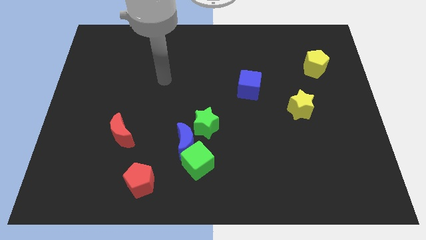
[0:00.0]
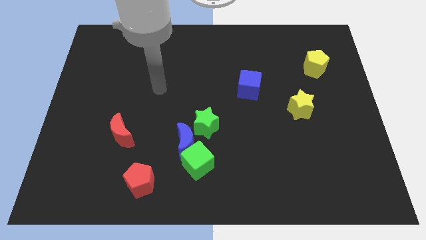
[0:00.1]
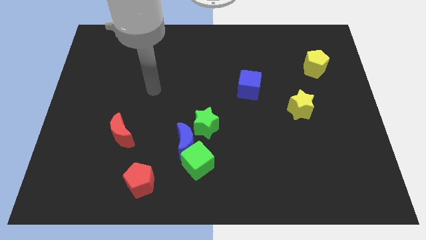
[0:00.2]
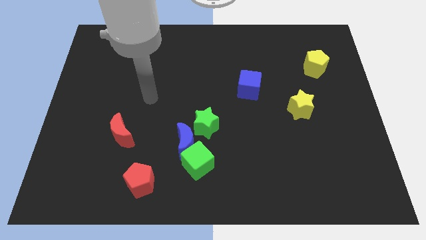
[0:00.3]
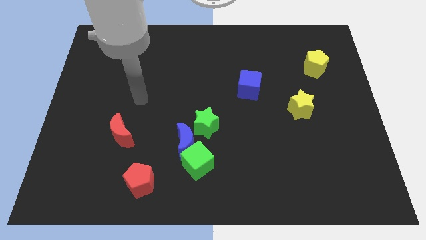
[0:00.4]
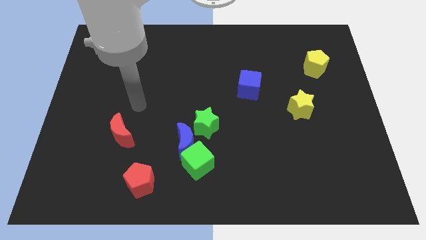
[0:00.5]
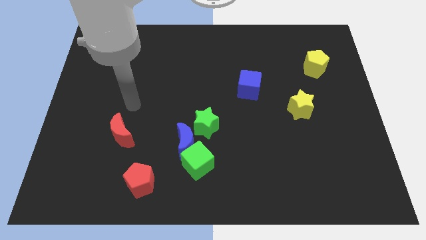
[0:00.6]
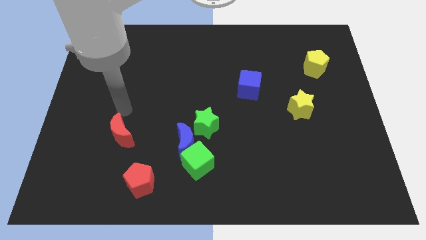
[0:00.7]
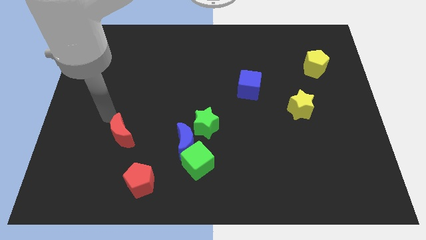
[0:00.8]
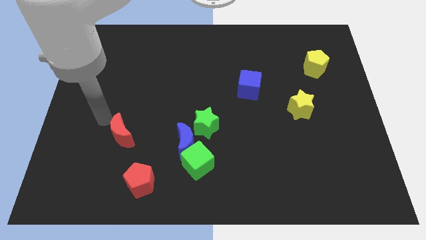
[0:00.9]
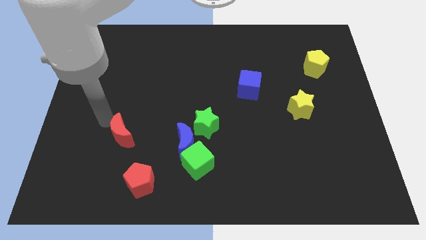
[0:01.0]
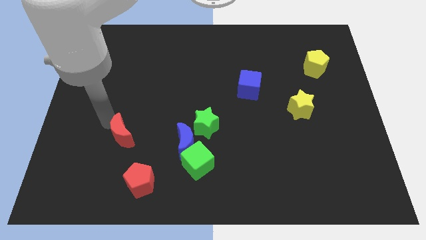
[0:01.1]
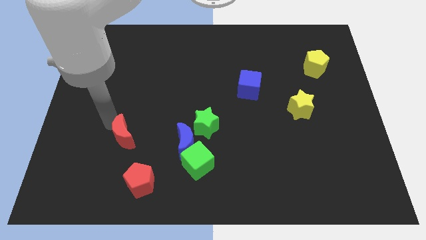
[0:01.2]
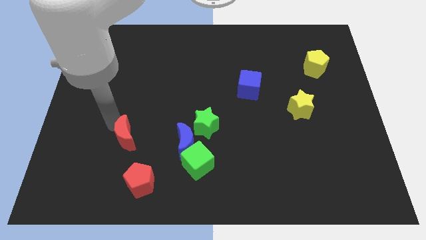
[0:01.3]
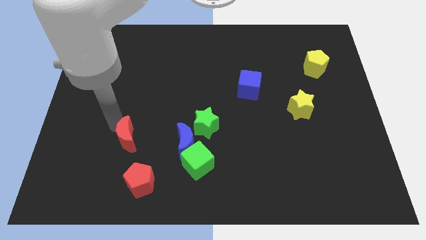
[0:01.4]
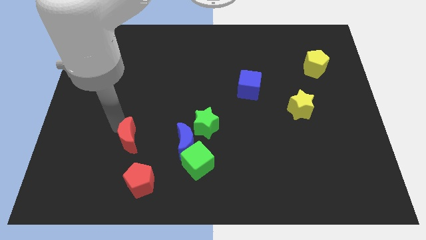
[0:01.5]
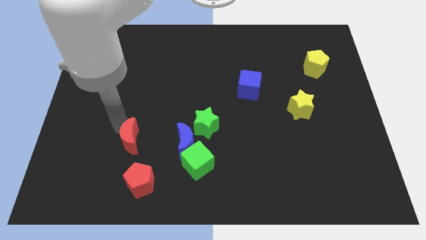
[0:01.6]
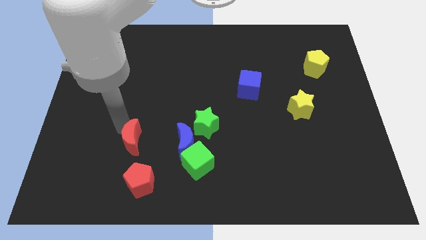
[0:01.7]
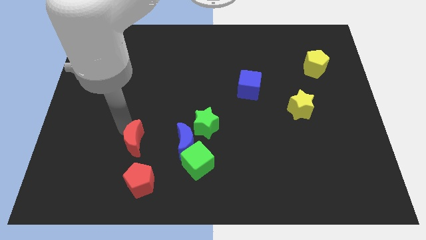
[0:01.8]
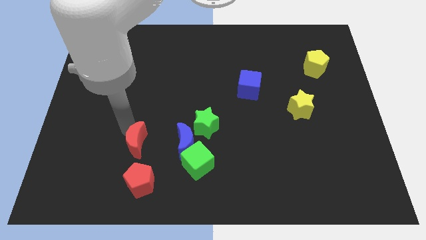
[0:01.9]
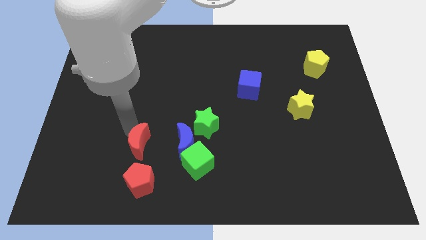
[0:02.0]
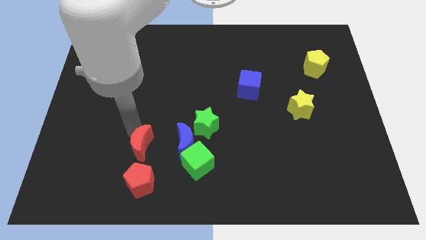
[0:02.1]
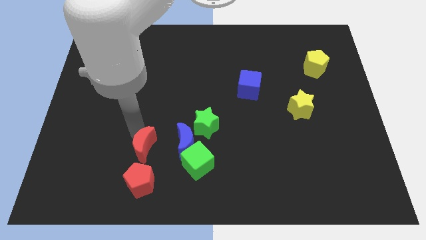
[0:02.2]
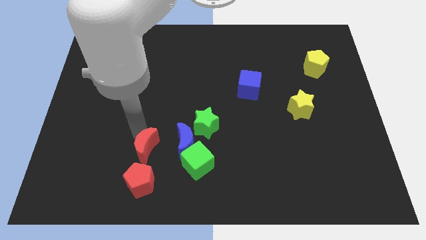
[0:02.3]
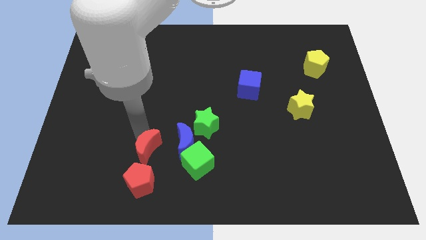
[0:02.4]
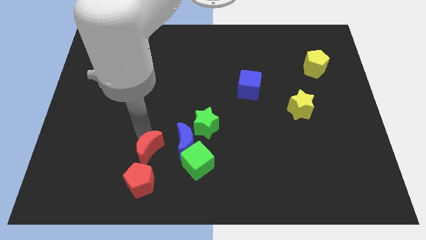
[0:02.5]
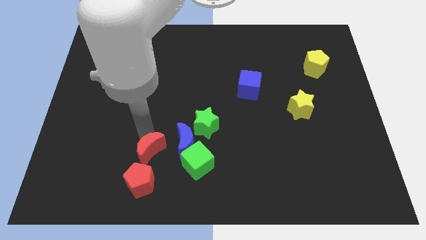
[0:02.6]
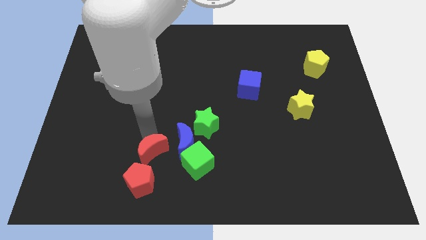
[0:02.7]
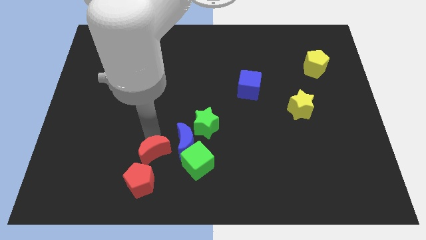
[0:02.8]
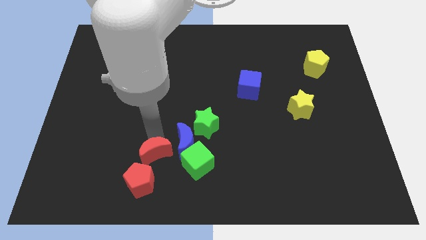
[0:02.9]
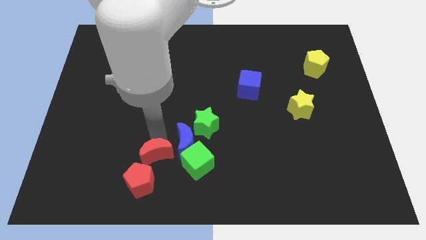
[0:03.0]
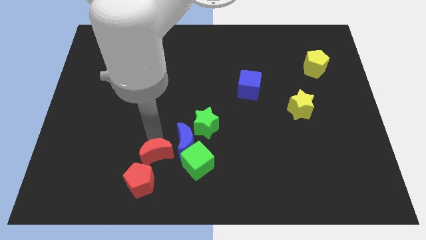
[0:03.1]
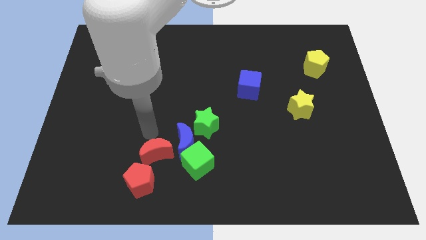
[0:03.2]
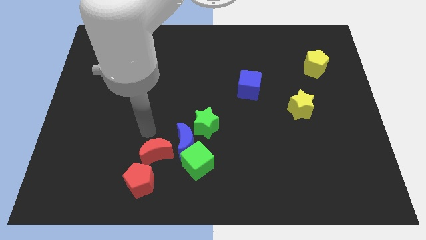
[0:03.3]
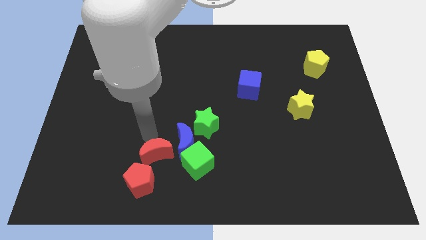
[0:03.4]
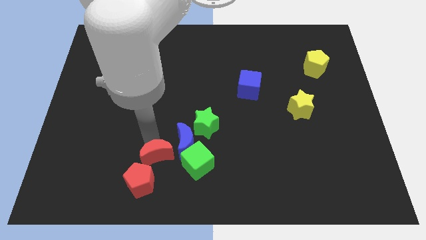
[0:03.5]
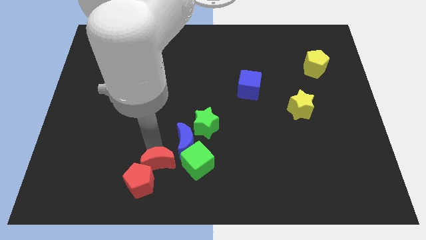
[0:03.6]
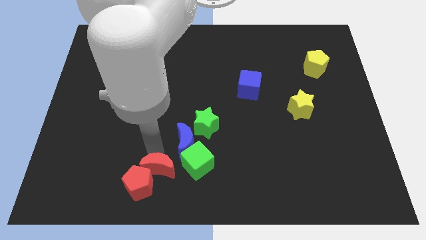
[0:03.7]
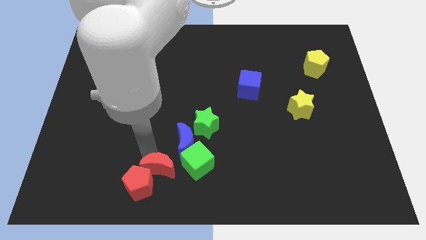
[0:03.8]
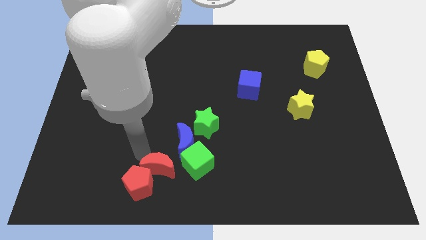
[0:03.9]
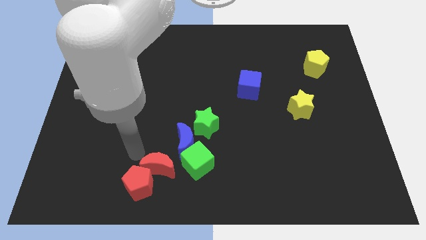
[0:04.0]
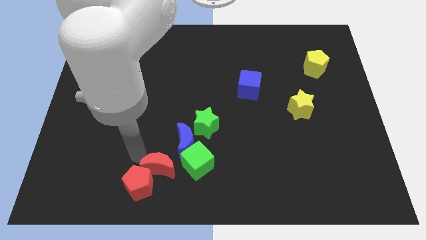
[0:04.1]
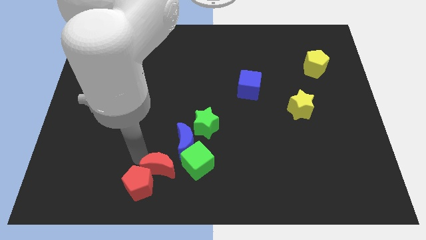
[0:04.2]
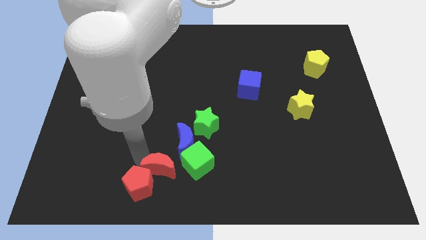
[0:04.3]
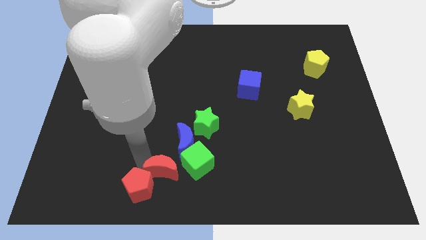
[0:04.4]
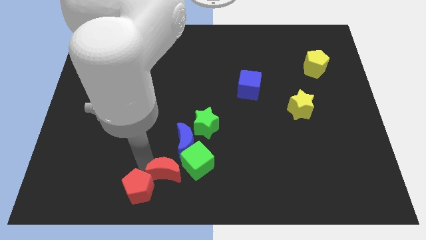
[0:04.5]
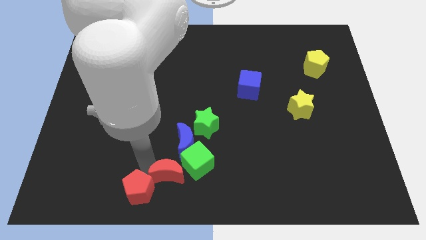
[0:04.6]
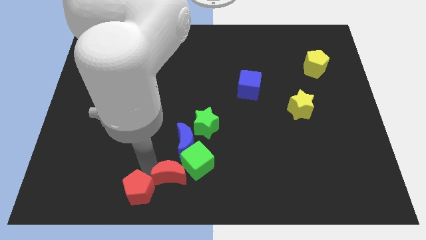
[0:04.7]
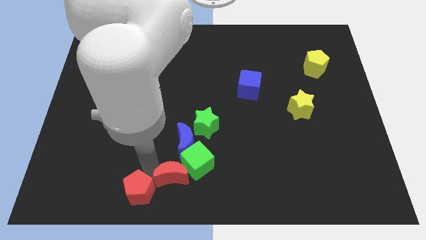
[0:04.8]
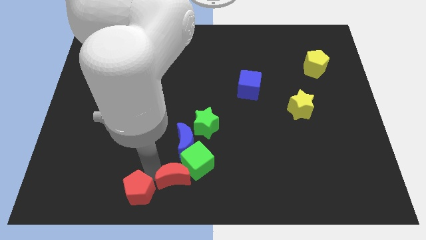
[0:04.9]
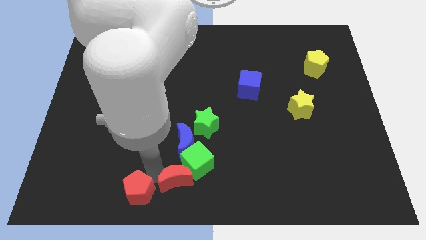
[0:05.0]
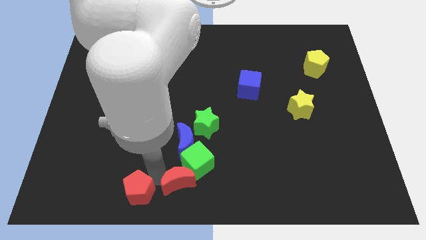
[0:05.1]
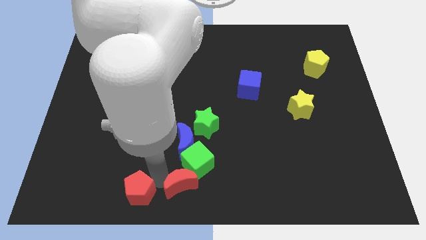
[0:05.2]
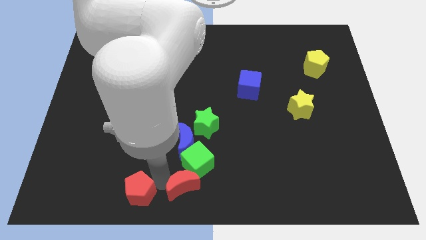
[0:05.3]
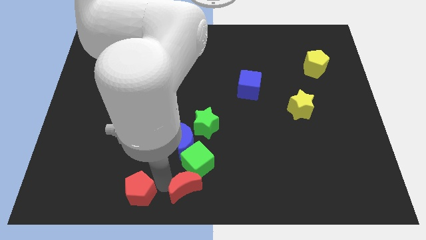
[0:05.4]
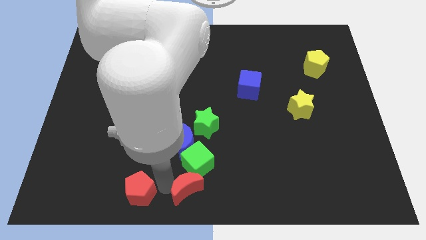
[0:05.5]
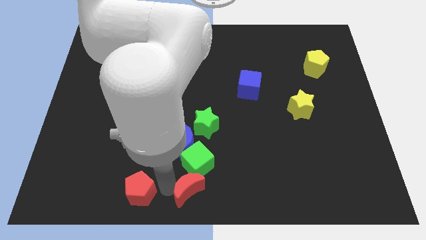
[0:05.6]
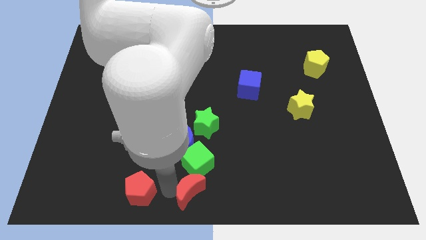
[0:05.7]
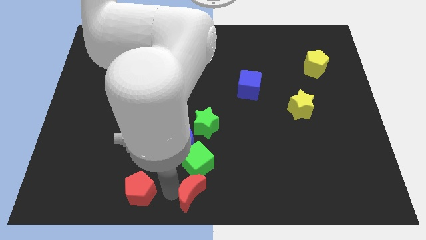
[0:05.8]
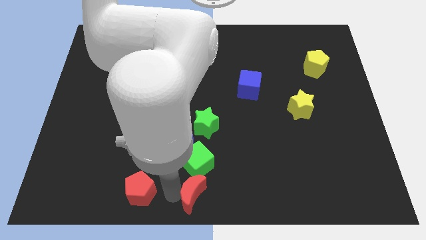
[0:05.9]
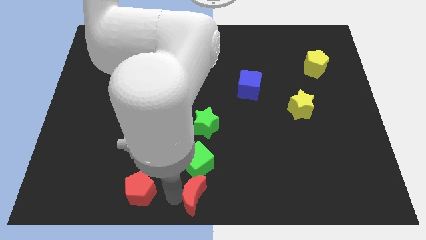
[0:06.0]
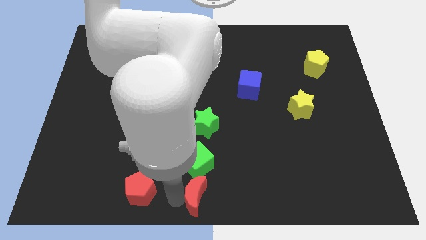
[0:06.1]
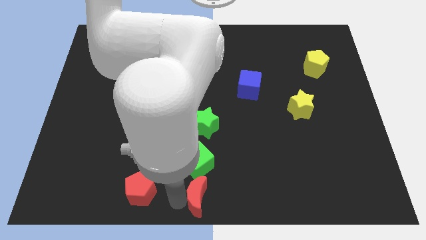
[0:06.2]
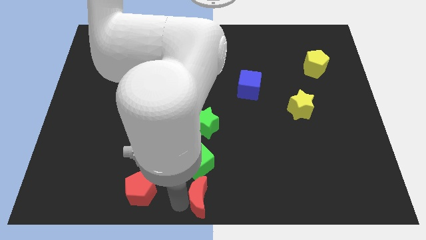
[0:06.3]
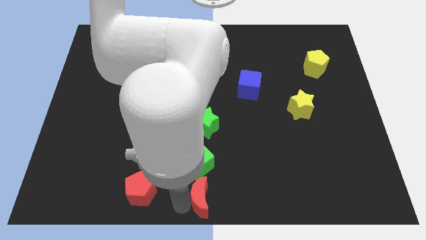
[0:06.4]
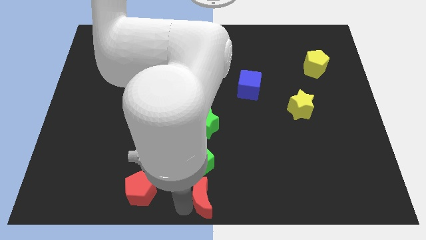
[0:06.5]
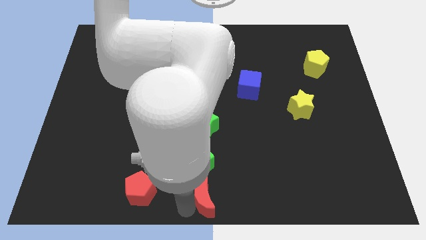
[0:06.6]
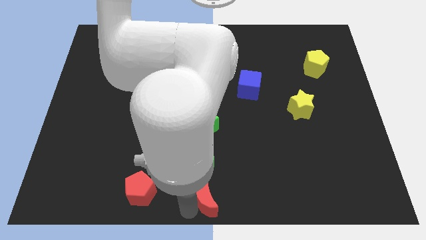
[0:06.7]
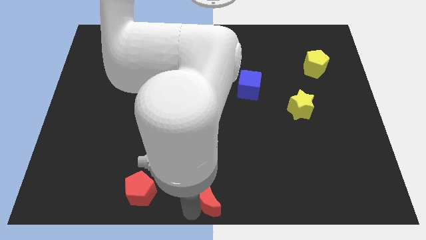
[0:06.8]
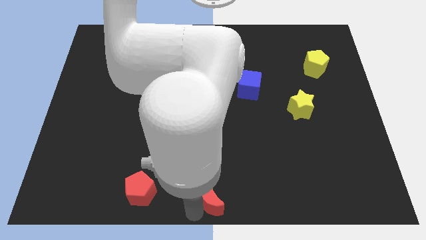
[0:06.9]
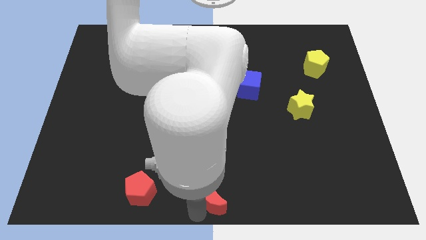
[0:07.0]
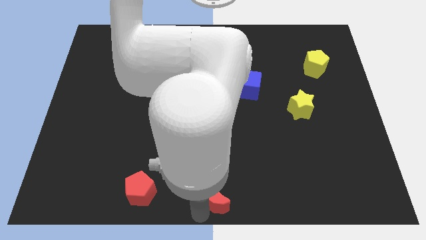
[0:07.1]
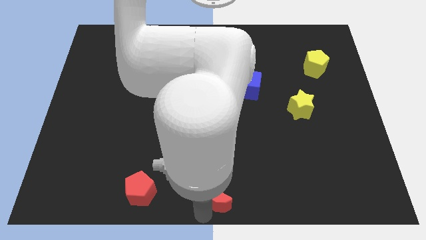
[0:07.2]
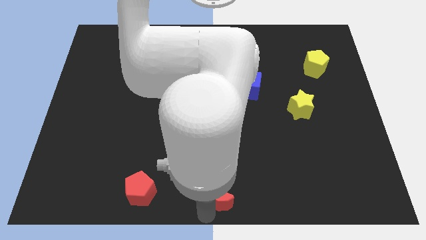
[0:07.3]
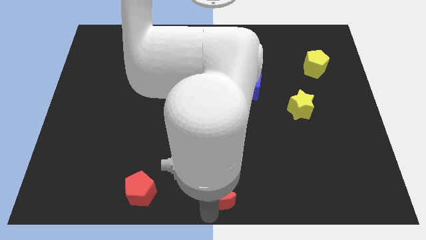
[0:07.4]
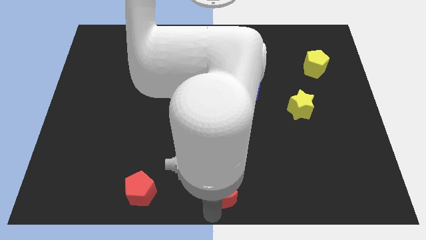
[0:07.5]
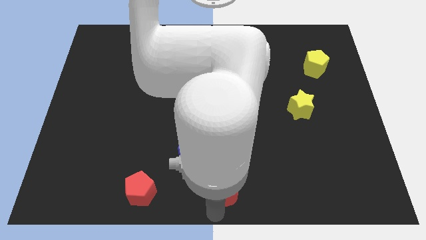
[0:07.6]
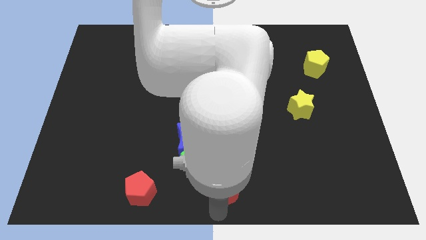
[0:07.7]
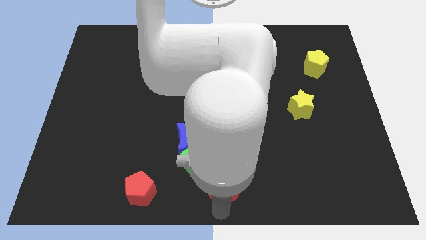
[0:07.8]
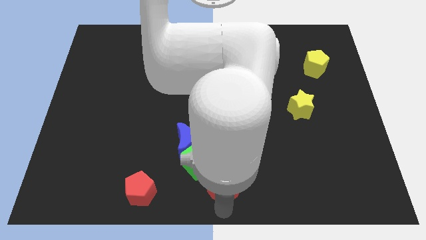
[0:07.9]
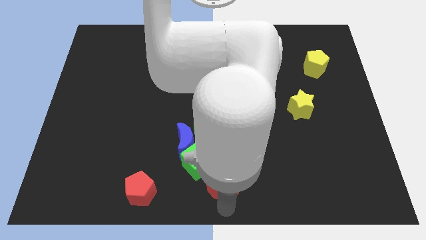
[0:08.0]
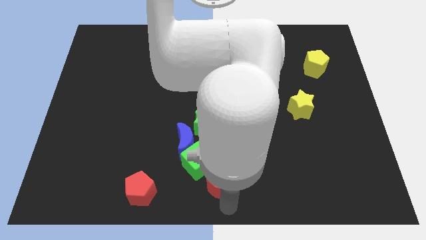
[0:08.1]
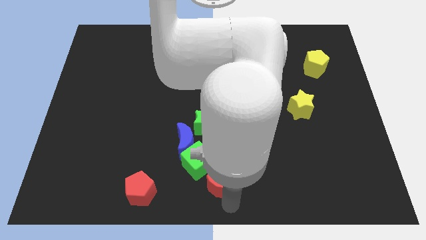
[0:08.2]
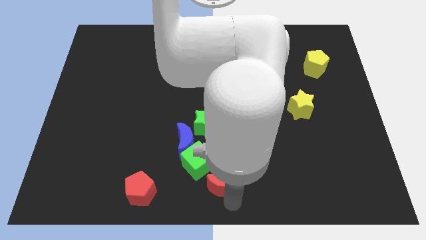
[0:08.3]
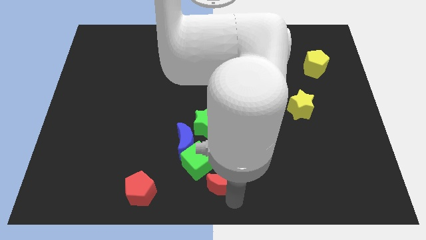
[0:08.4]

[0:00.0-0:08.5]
move the red moon to the right side of the green cube
